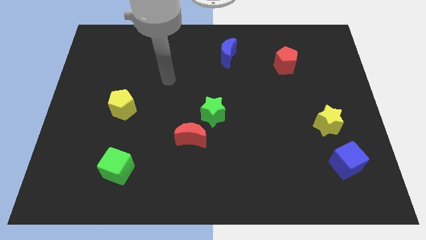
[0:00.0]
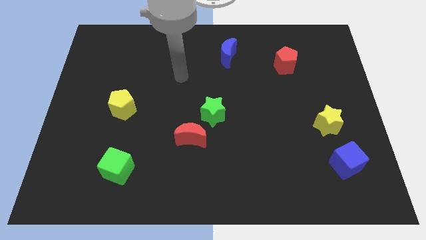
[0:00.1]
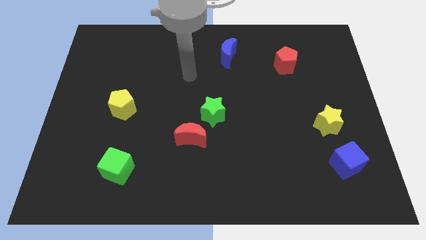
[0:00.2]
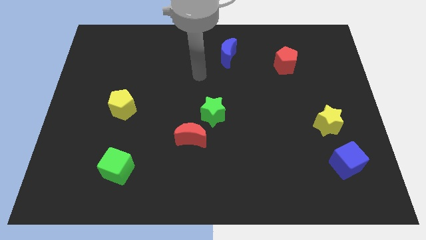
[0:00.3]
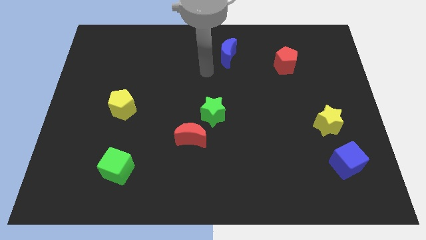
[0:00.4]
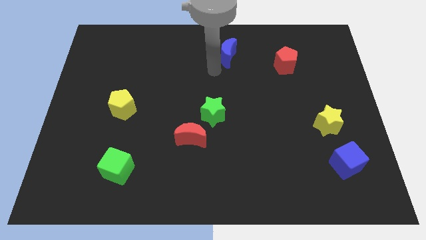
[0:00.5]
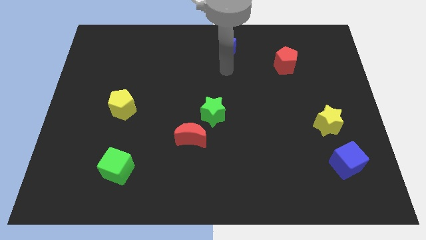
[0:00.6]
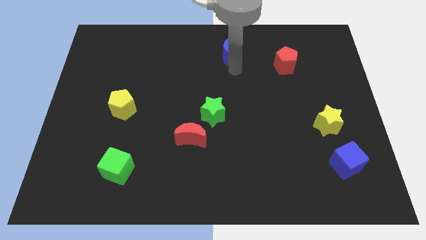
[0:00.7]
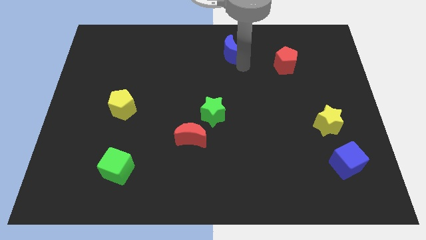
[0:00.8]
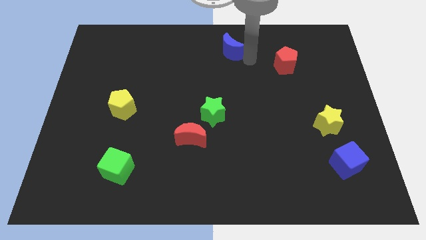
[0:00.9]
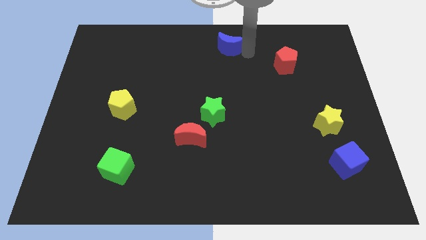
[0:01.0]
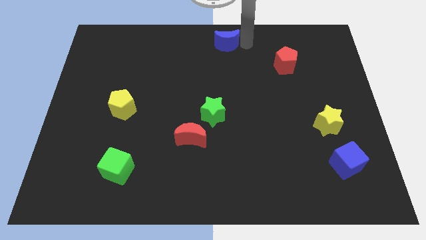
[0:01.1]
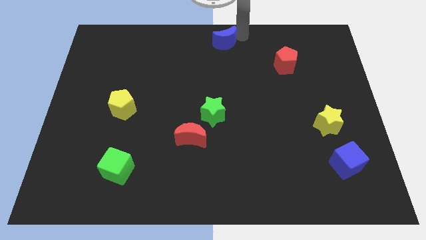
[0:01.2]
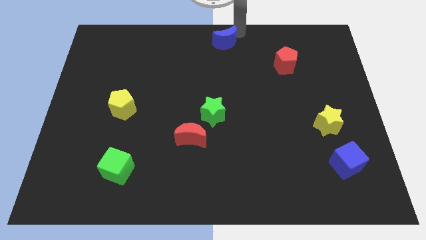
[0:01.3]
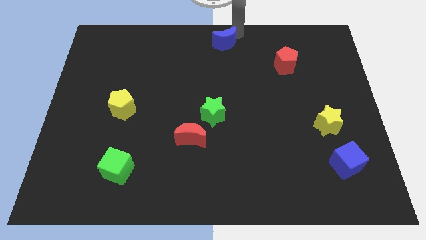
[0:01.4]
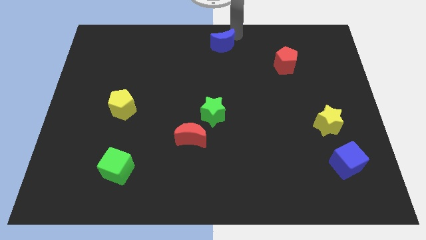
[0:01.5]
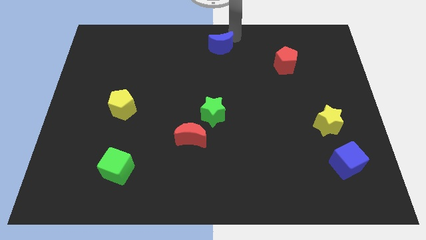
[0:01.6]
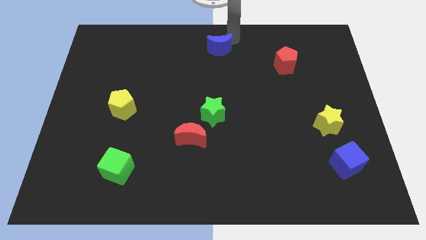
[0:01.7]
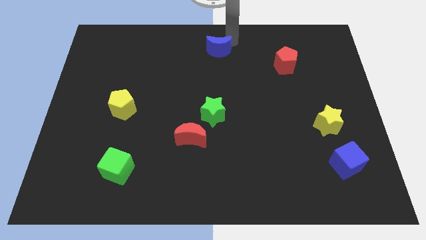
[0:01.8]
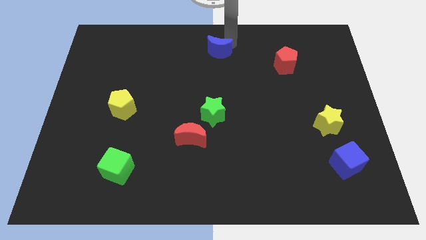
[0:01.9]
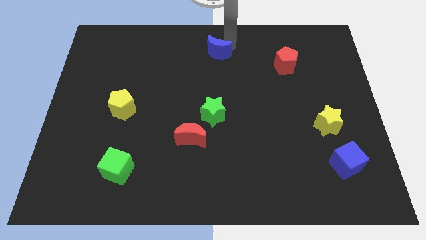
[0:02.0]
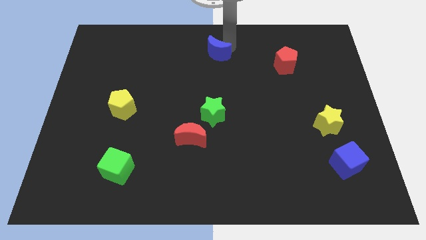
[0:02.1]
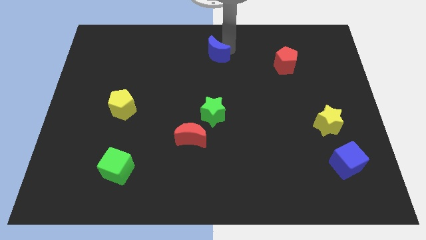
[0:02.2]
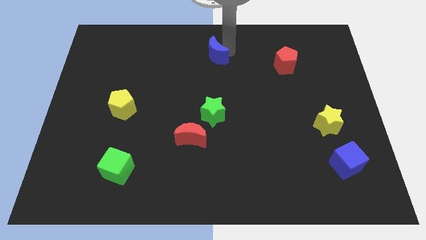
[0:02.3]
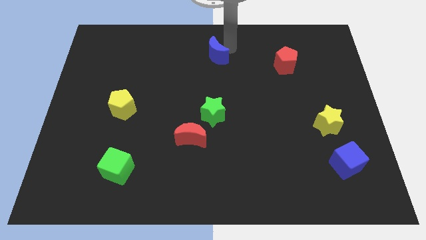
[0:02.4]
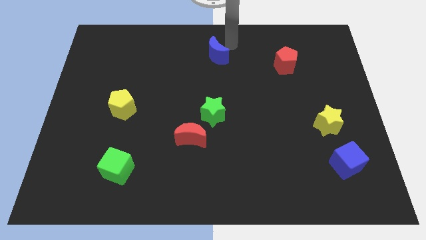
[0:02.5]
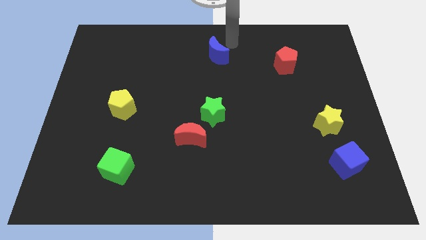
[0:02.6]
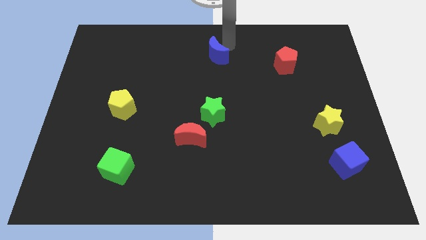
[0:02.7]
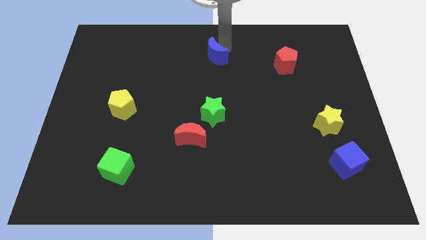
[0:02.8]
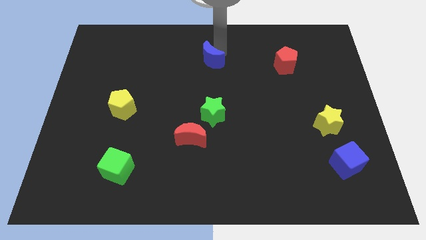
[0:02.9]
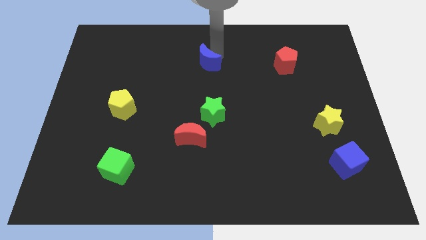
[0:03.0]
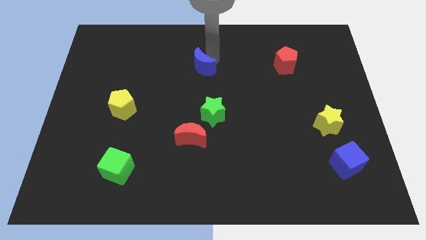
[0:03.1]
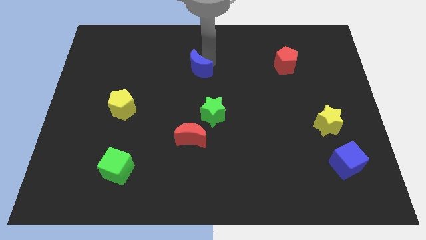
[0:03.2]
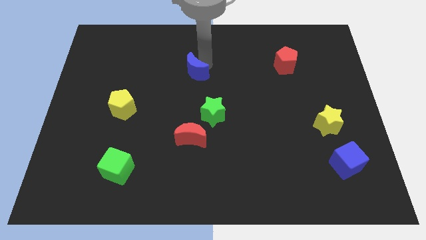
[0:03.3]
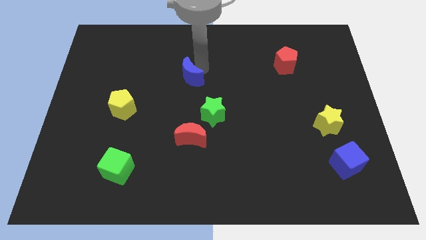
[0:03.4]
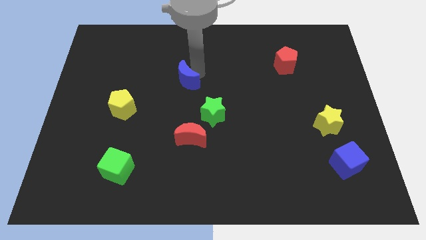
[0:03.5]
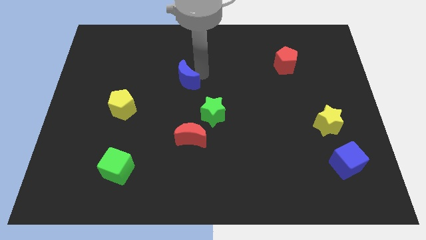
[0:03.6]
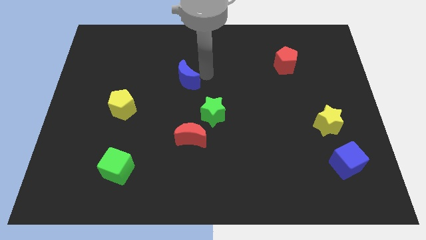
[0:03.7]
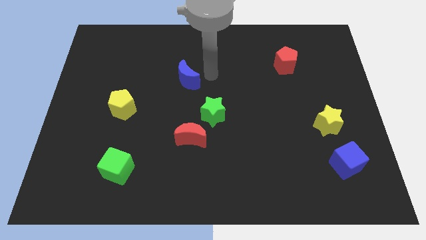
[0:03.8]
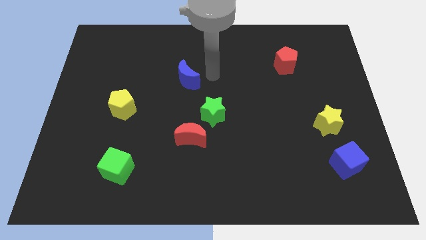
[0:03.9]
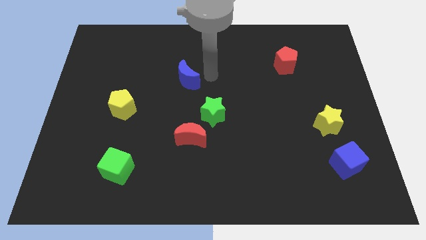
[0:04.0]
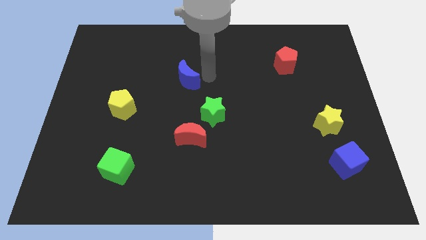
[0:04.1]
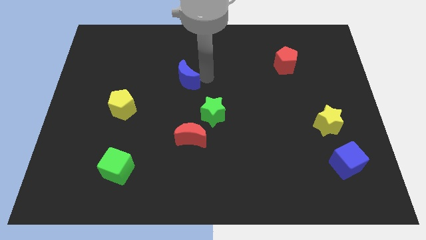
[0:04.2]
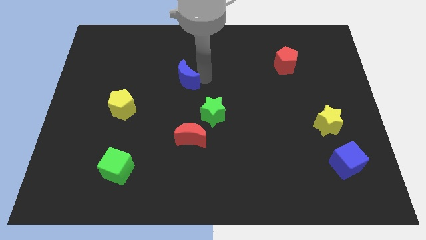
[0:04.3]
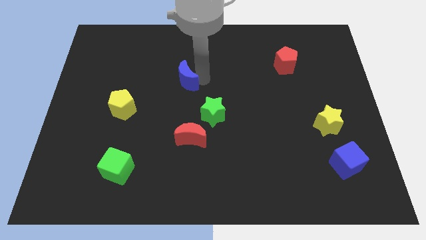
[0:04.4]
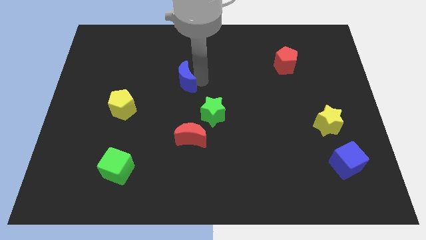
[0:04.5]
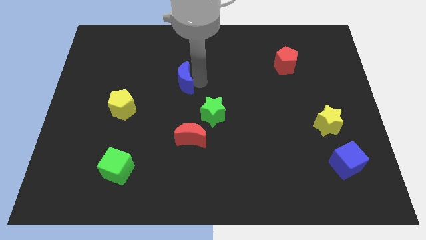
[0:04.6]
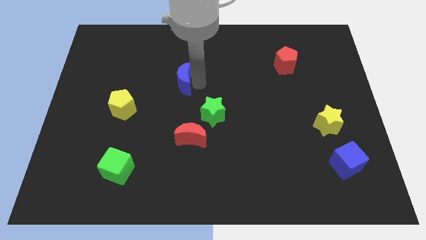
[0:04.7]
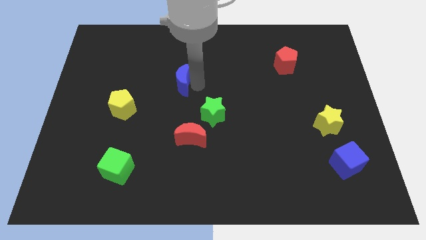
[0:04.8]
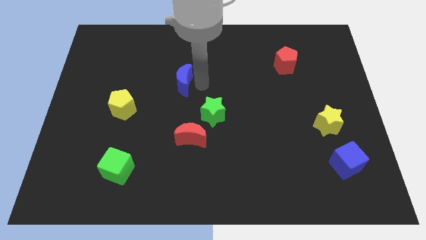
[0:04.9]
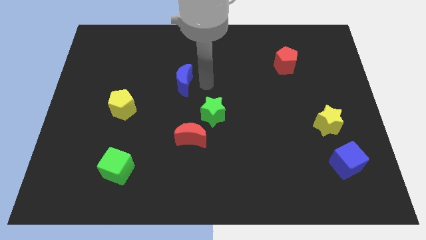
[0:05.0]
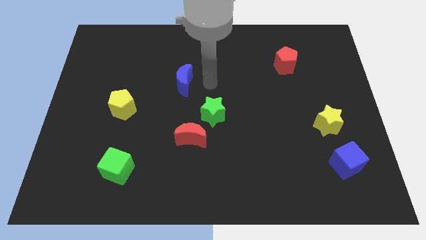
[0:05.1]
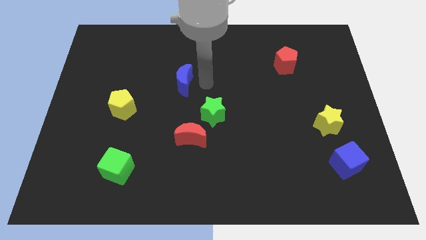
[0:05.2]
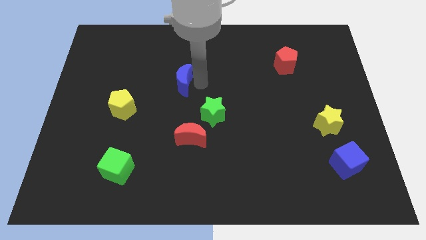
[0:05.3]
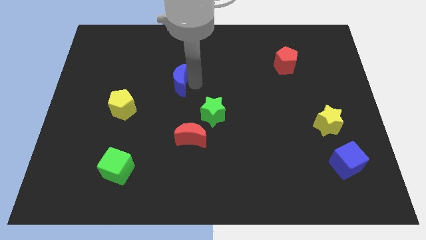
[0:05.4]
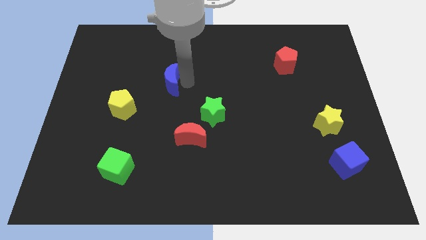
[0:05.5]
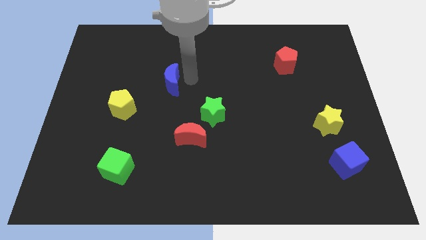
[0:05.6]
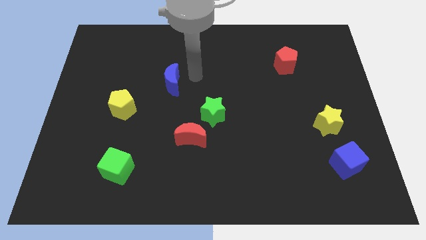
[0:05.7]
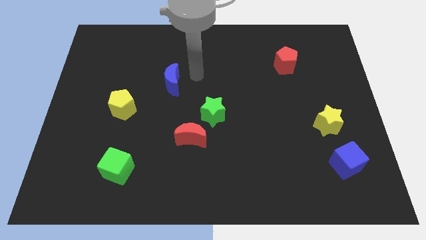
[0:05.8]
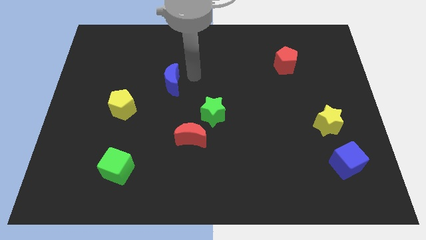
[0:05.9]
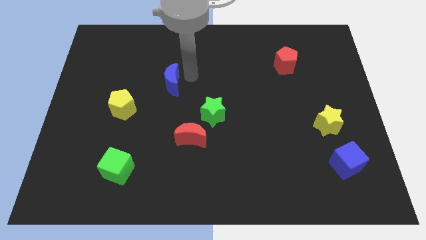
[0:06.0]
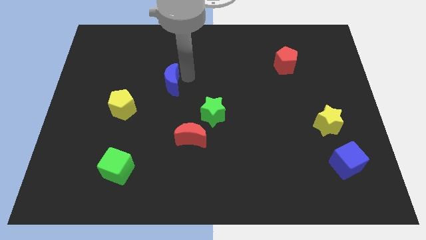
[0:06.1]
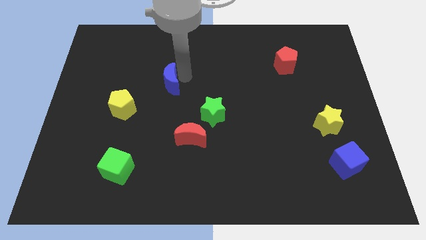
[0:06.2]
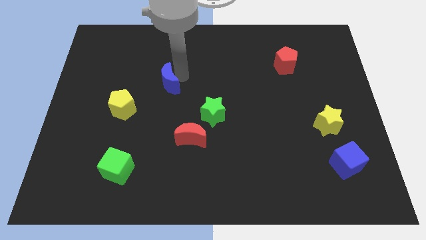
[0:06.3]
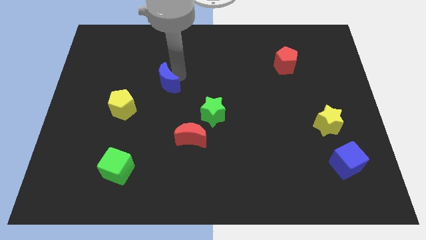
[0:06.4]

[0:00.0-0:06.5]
push the blue moon to the top right of the yellow pentagon

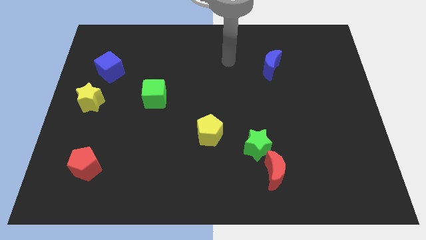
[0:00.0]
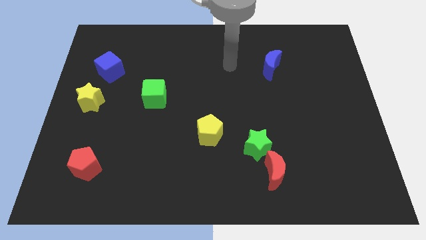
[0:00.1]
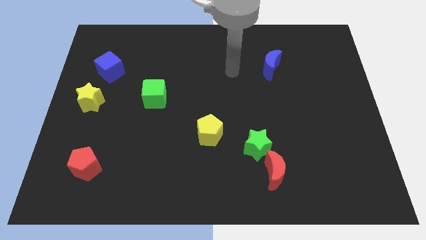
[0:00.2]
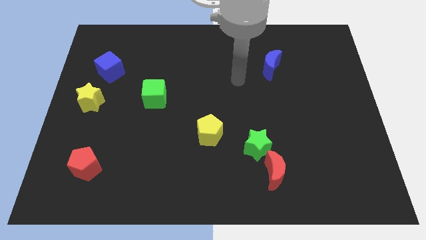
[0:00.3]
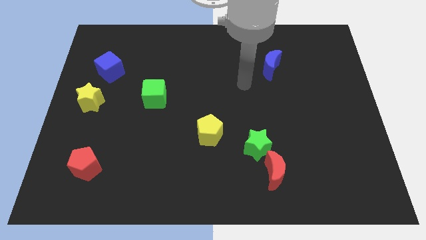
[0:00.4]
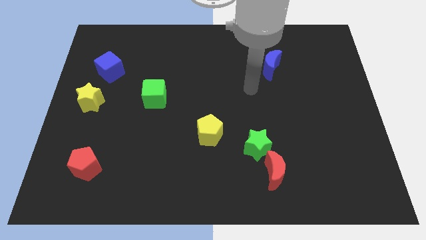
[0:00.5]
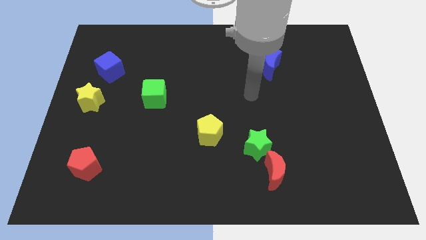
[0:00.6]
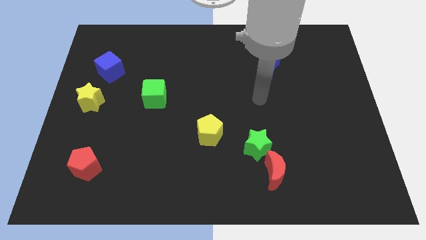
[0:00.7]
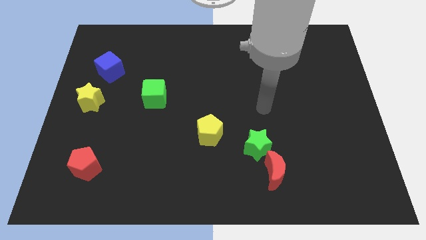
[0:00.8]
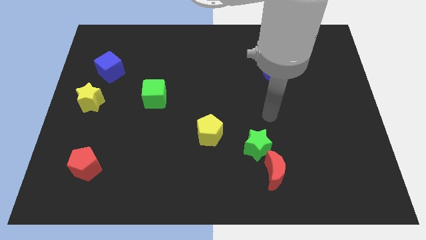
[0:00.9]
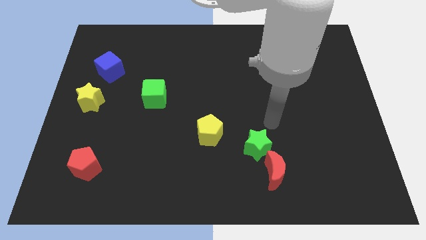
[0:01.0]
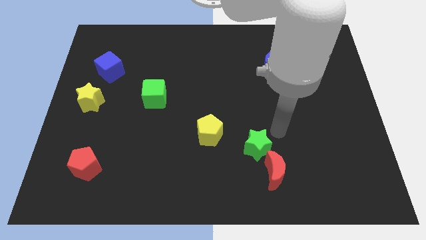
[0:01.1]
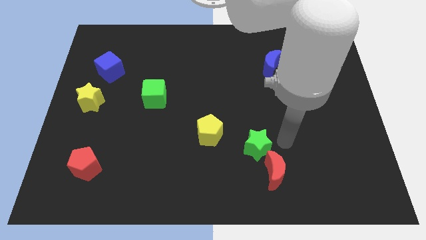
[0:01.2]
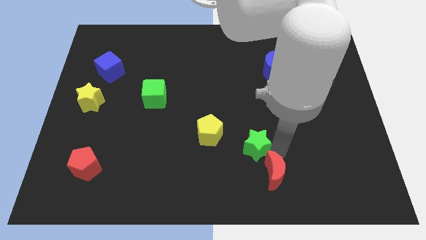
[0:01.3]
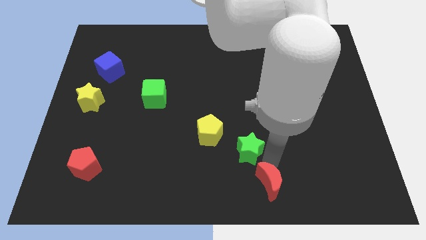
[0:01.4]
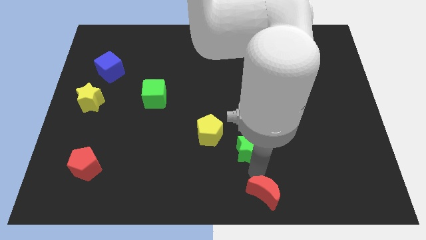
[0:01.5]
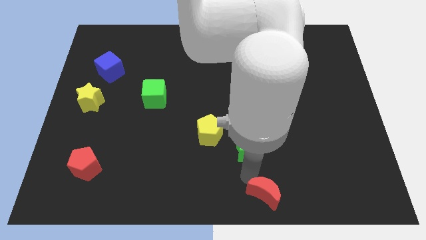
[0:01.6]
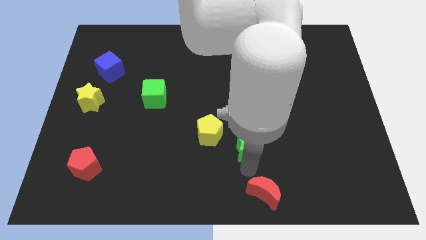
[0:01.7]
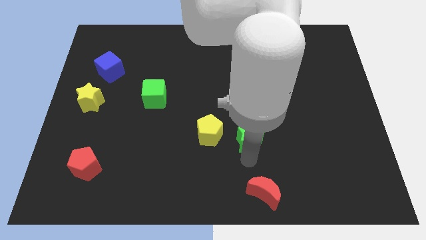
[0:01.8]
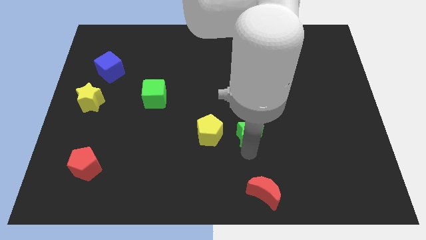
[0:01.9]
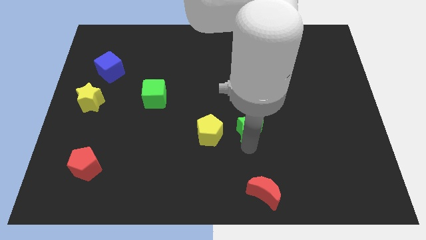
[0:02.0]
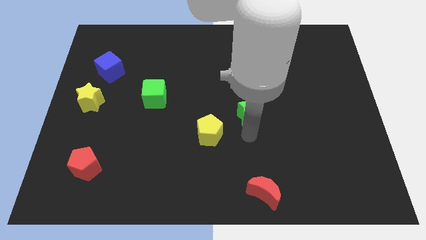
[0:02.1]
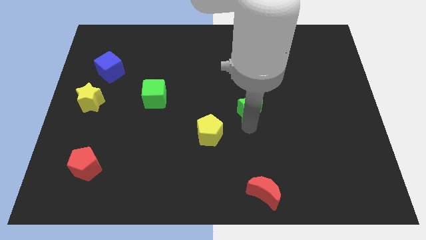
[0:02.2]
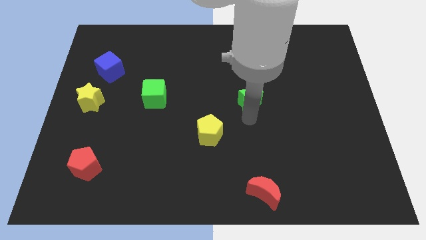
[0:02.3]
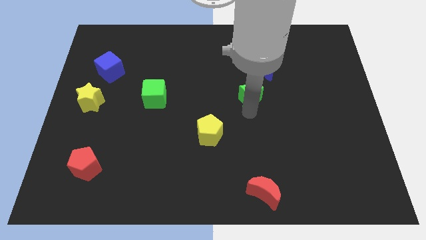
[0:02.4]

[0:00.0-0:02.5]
push the green star to the bottom left side of the blue moon
